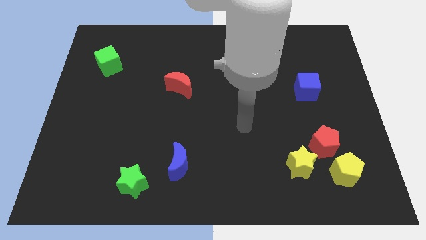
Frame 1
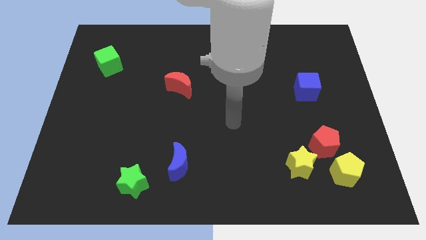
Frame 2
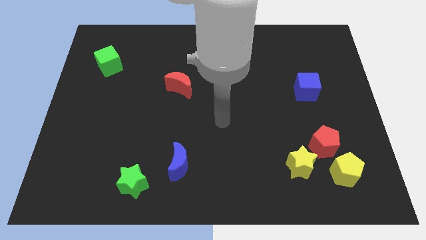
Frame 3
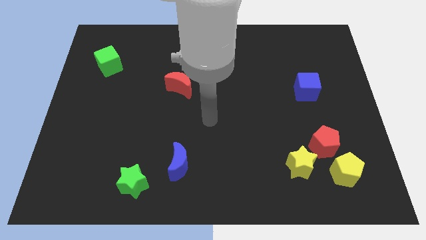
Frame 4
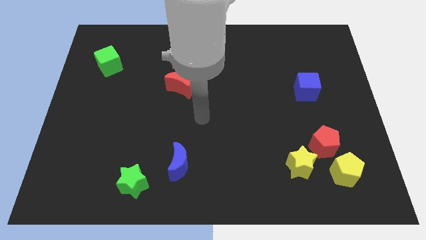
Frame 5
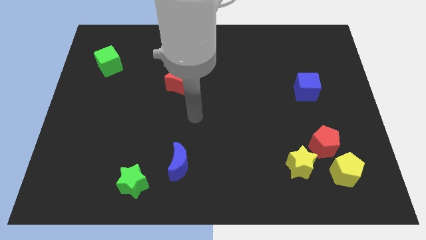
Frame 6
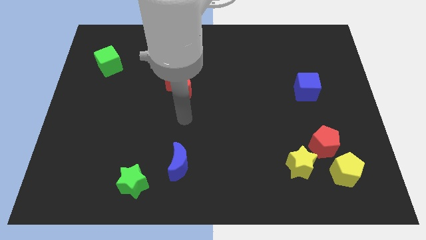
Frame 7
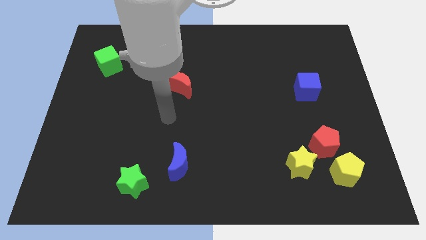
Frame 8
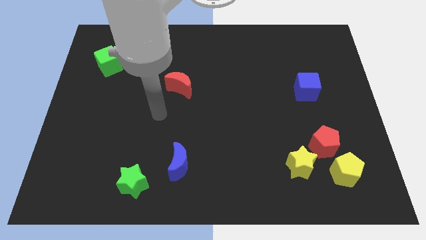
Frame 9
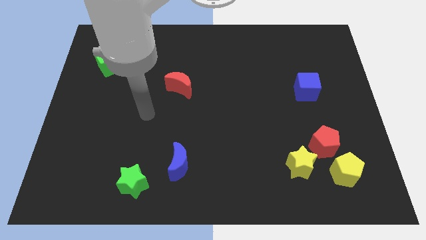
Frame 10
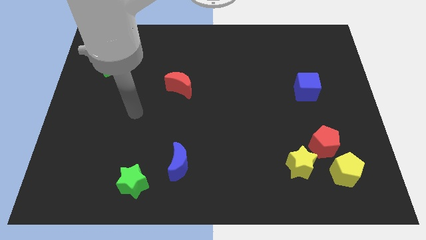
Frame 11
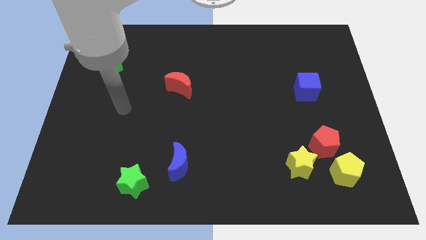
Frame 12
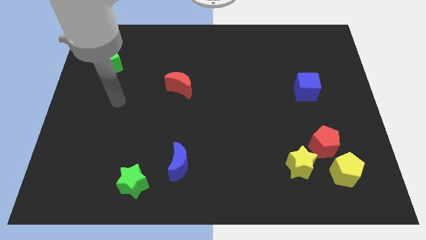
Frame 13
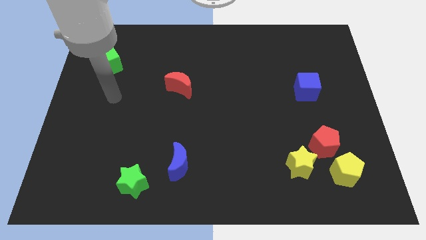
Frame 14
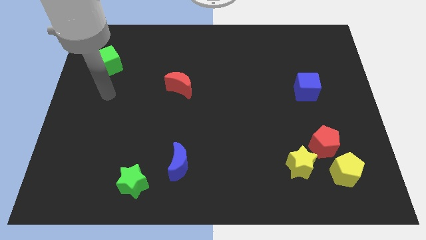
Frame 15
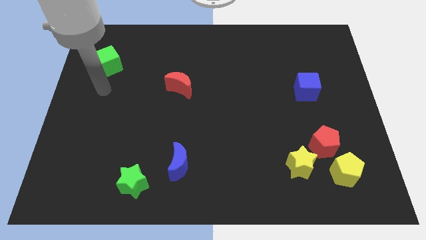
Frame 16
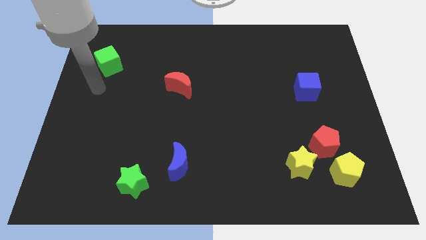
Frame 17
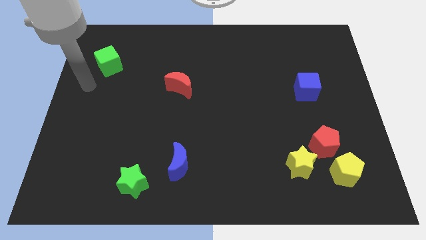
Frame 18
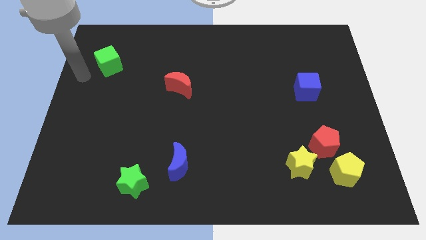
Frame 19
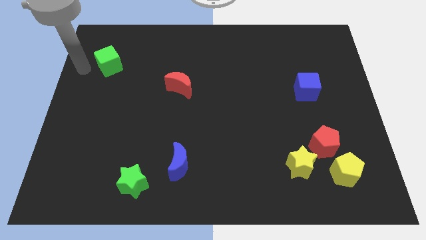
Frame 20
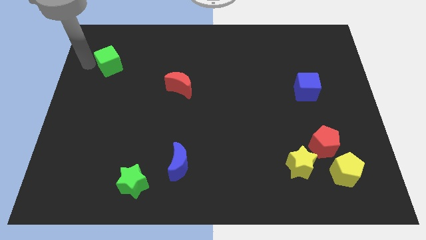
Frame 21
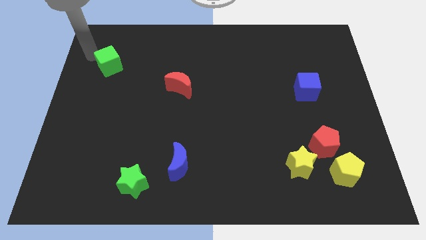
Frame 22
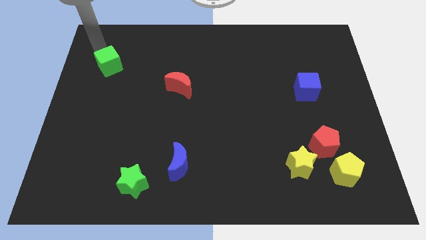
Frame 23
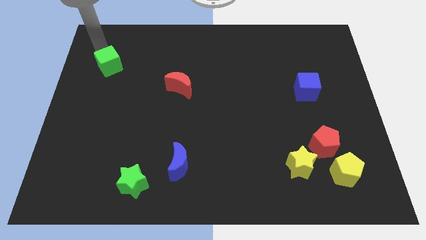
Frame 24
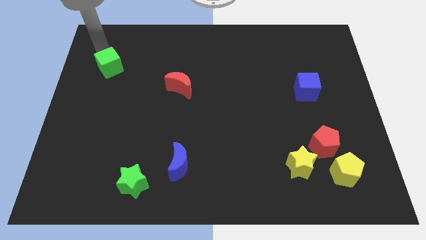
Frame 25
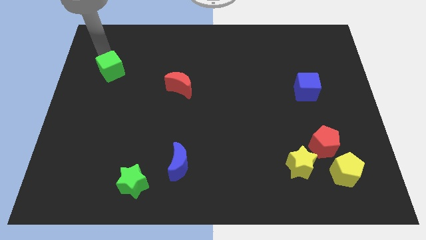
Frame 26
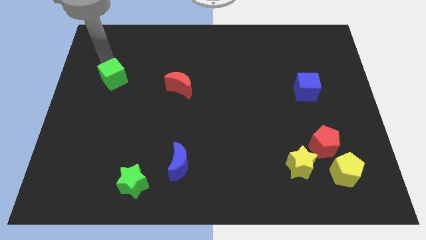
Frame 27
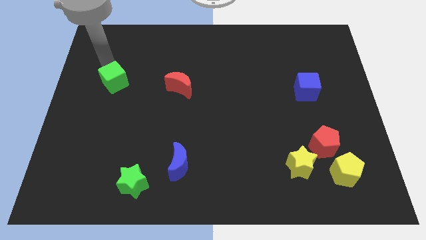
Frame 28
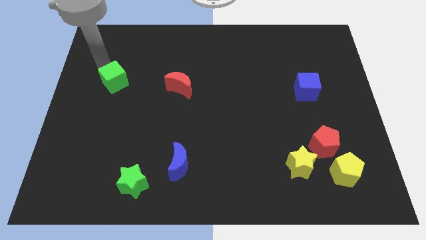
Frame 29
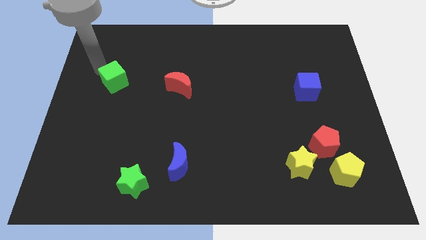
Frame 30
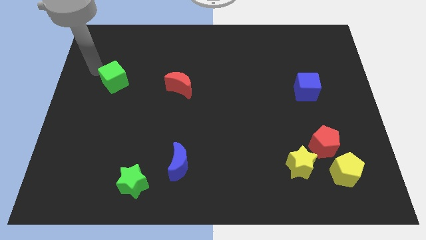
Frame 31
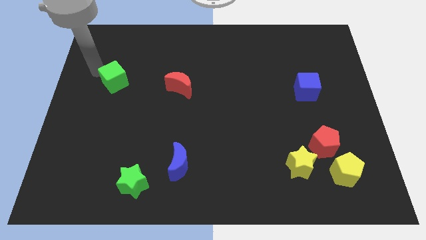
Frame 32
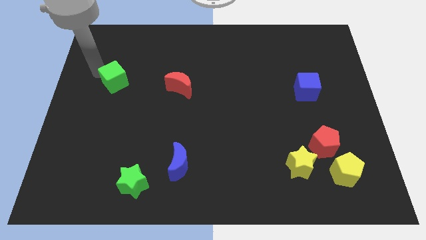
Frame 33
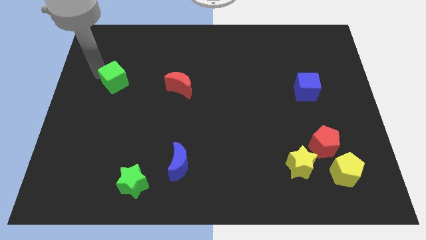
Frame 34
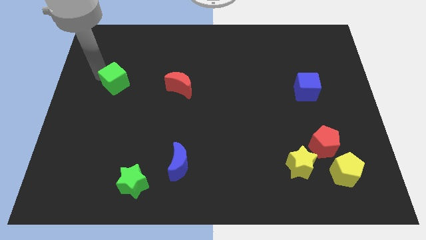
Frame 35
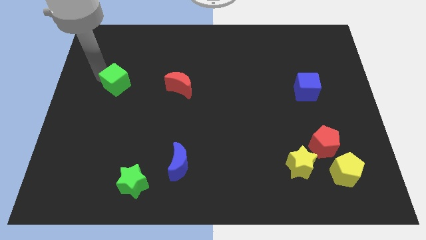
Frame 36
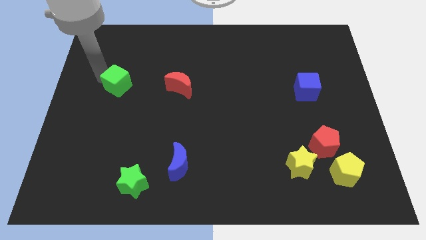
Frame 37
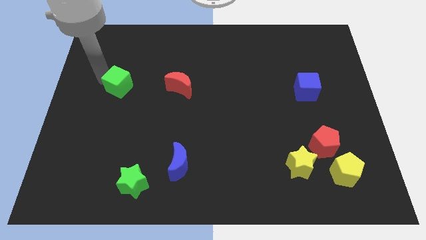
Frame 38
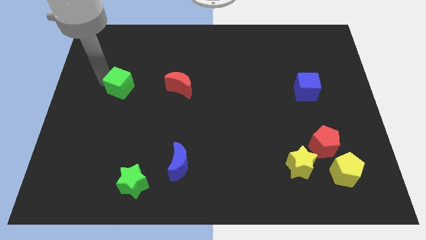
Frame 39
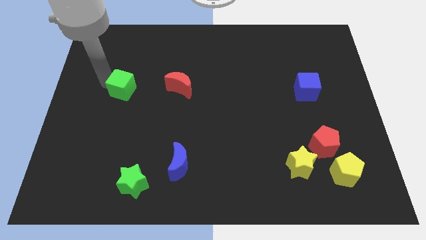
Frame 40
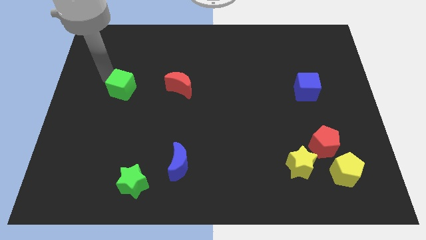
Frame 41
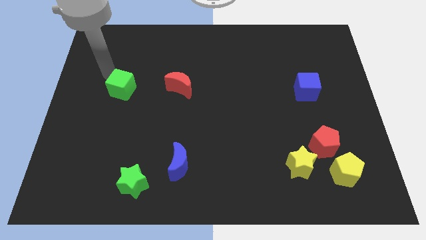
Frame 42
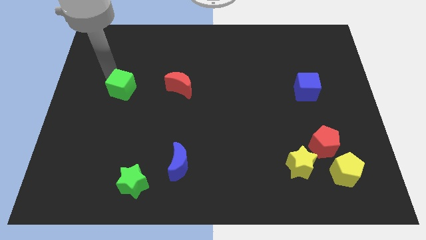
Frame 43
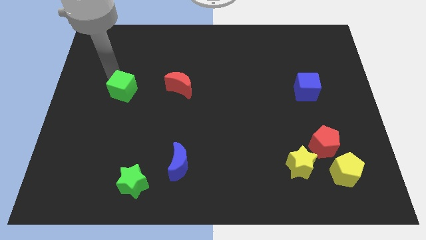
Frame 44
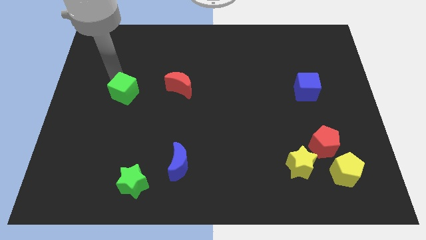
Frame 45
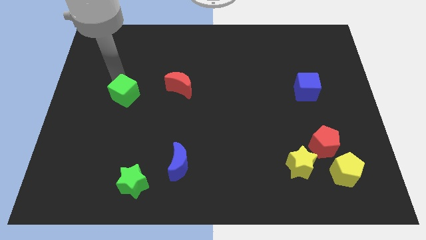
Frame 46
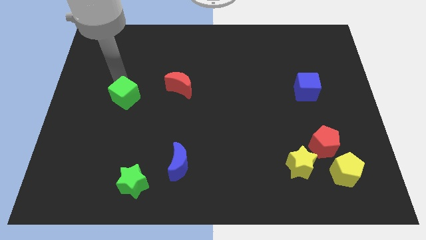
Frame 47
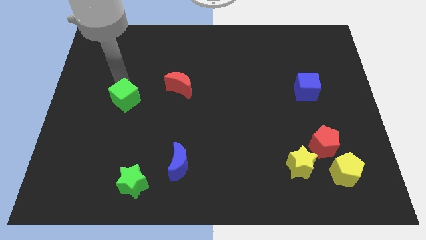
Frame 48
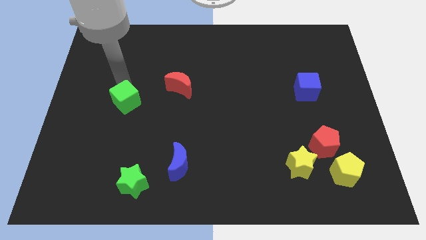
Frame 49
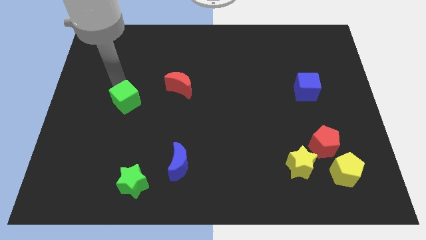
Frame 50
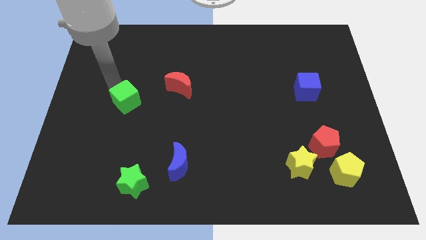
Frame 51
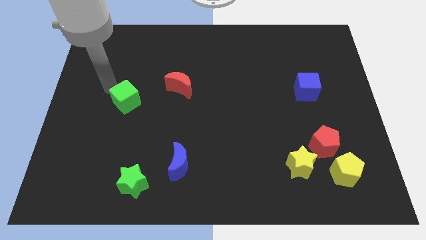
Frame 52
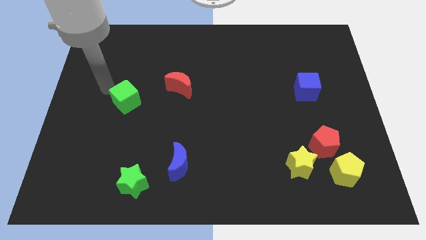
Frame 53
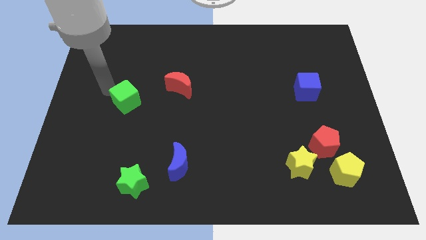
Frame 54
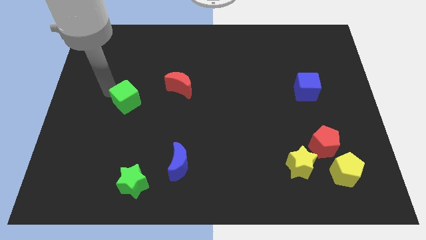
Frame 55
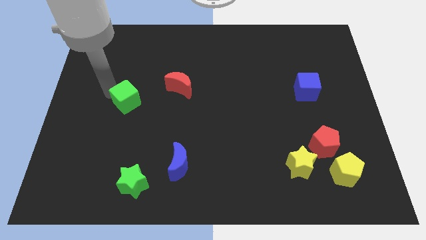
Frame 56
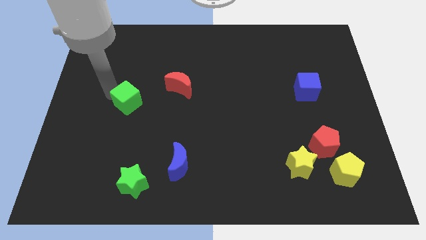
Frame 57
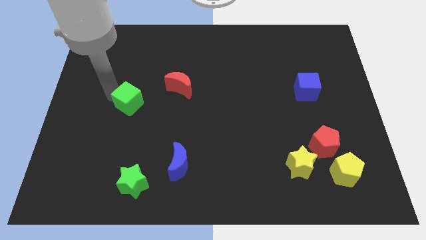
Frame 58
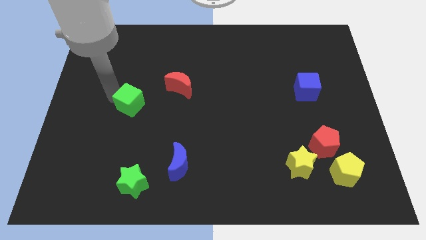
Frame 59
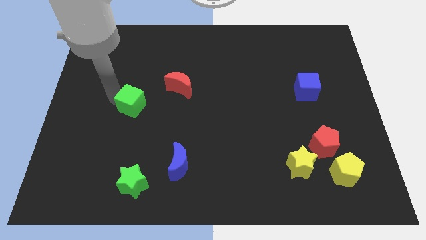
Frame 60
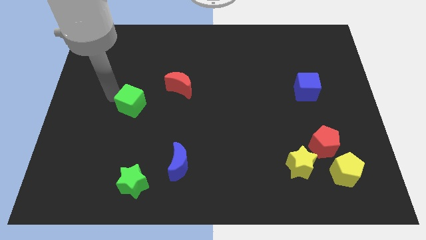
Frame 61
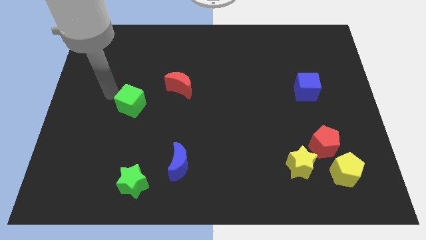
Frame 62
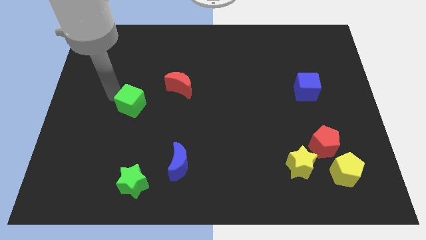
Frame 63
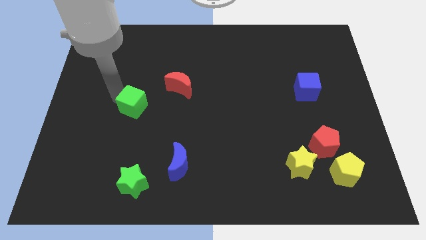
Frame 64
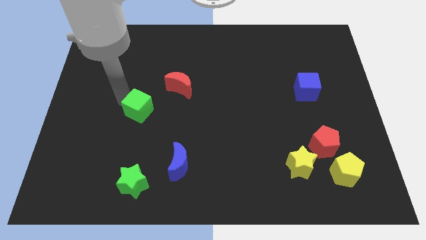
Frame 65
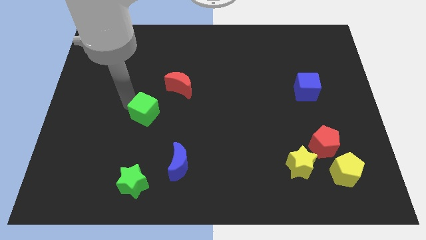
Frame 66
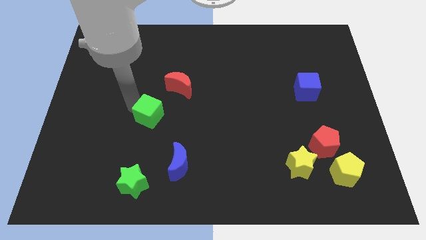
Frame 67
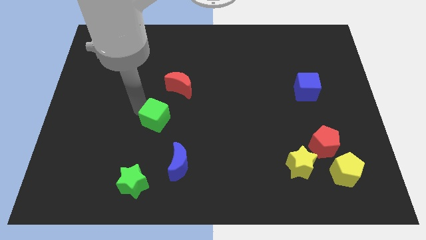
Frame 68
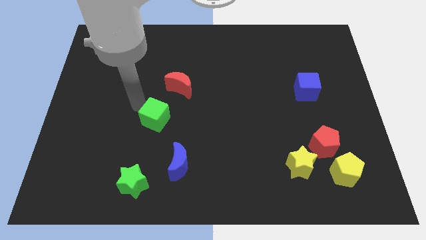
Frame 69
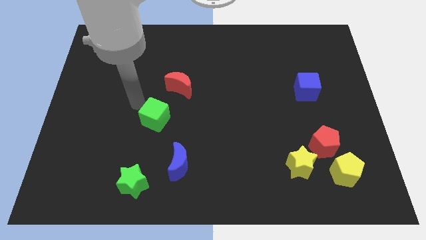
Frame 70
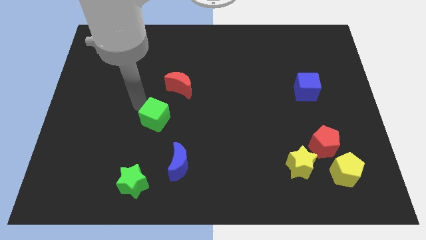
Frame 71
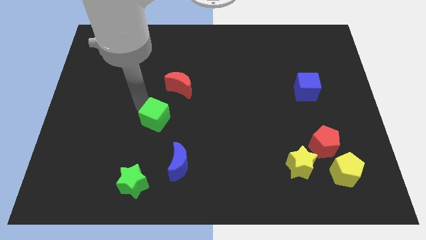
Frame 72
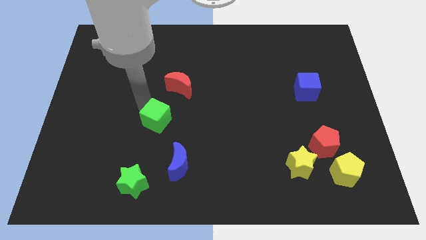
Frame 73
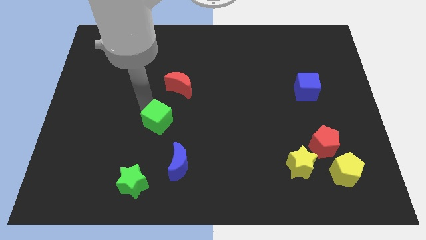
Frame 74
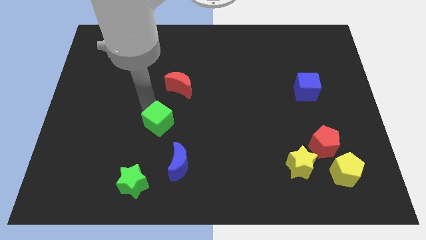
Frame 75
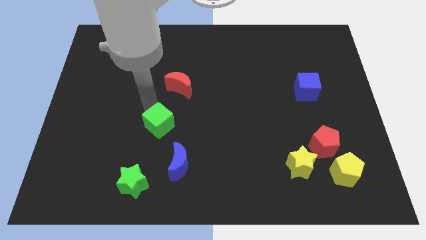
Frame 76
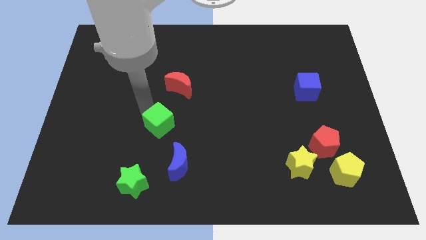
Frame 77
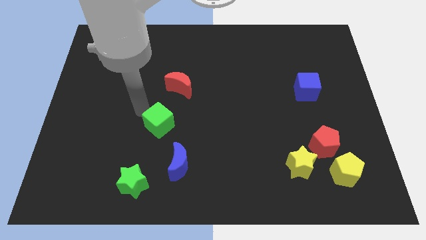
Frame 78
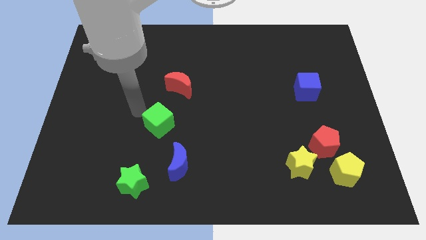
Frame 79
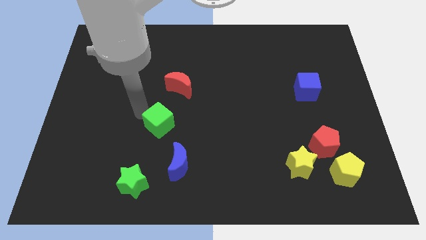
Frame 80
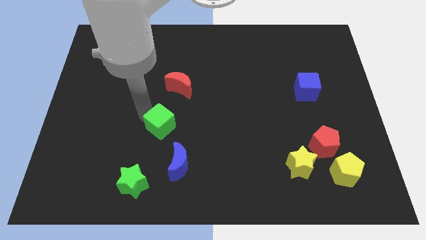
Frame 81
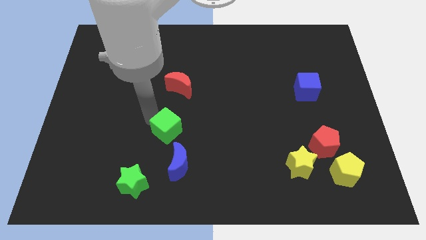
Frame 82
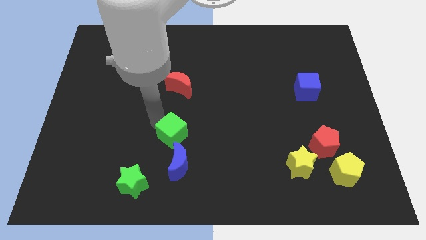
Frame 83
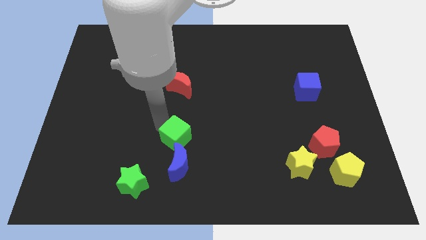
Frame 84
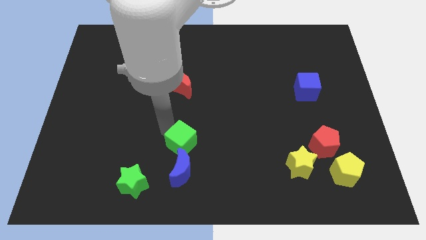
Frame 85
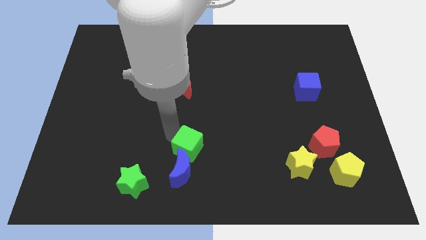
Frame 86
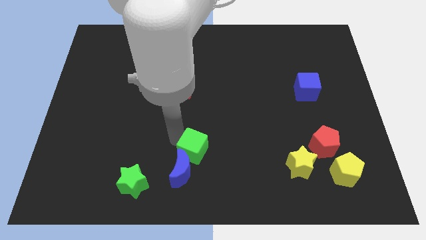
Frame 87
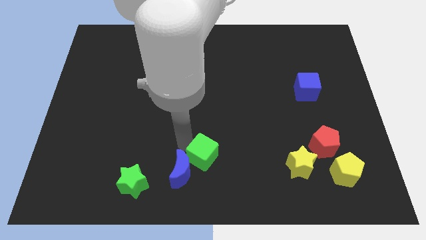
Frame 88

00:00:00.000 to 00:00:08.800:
put the green cube to the right of the blue moon
